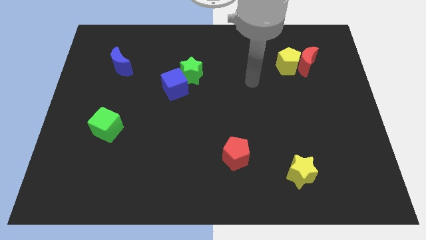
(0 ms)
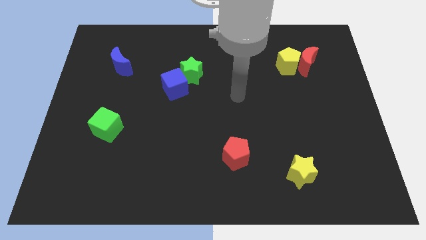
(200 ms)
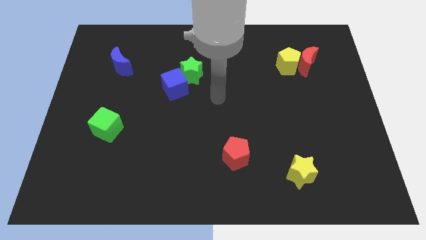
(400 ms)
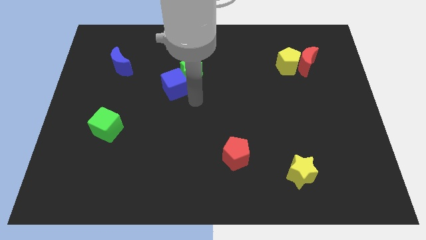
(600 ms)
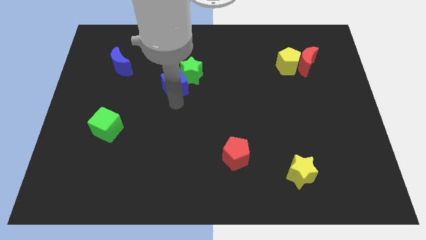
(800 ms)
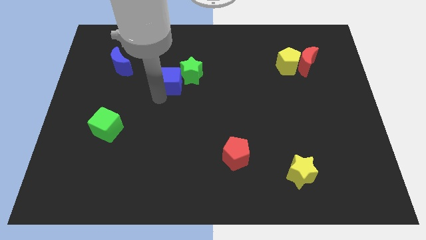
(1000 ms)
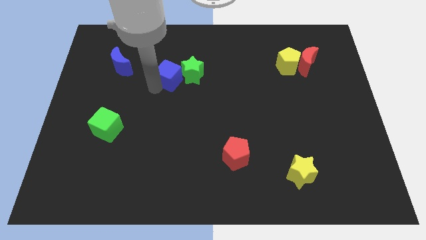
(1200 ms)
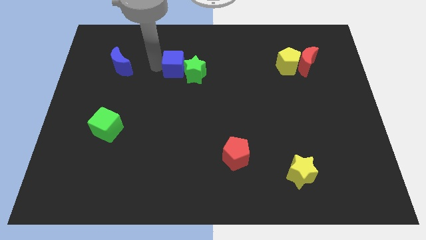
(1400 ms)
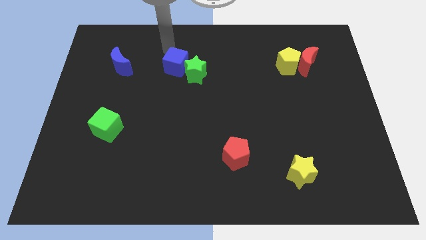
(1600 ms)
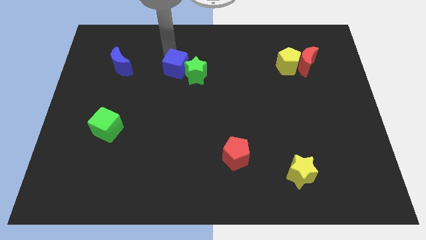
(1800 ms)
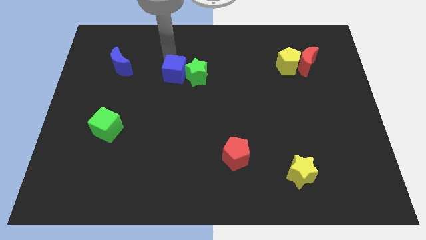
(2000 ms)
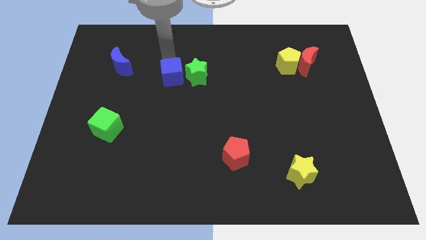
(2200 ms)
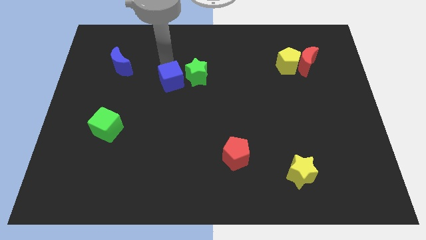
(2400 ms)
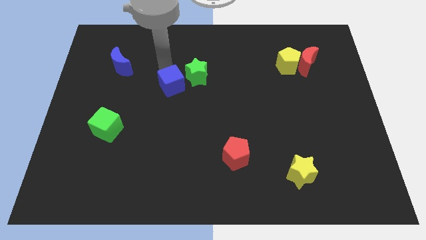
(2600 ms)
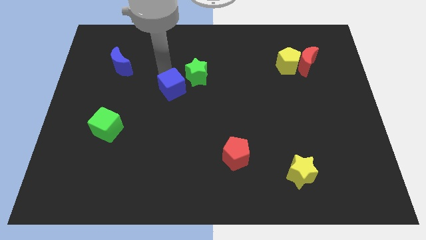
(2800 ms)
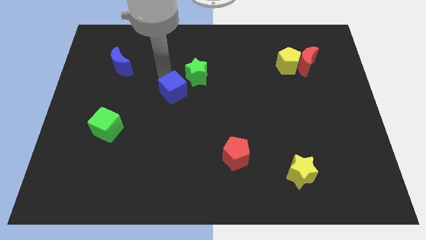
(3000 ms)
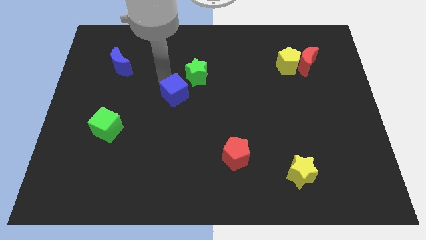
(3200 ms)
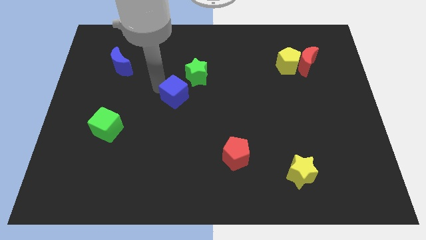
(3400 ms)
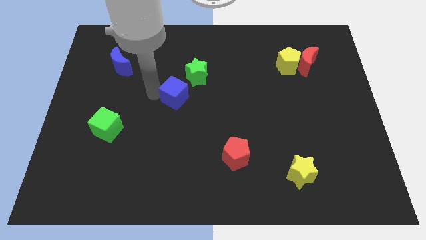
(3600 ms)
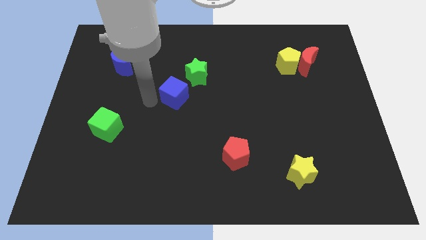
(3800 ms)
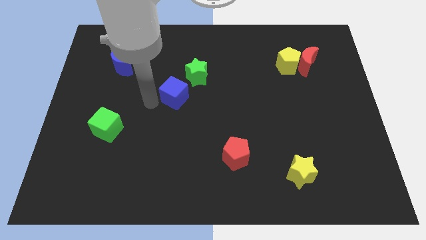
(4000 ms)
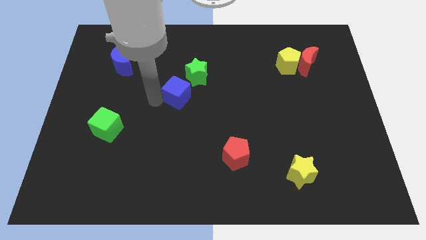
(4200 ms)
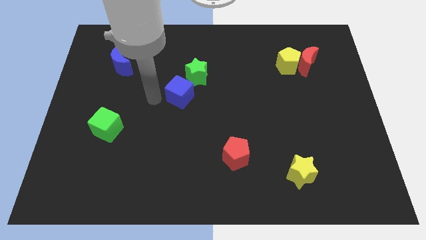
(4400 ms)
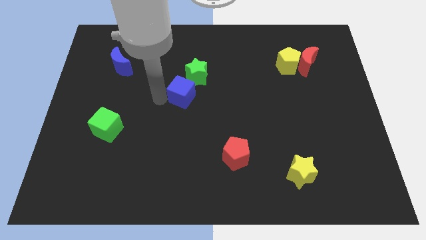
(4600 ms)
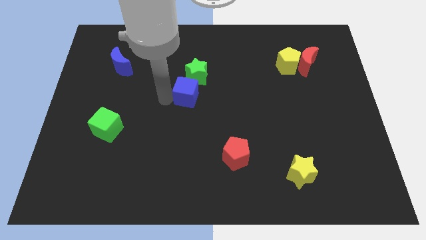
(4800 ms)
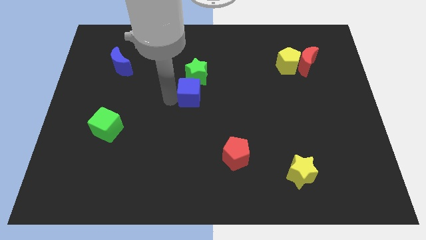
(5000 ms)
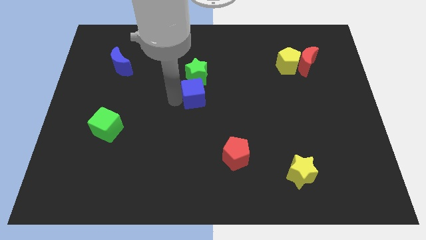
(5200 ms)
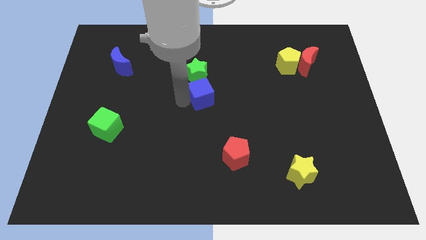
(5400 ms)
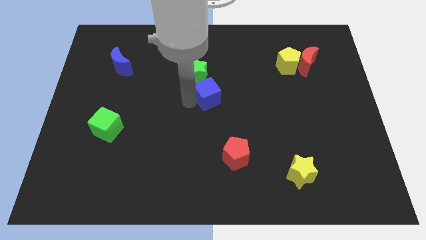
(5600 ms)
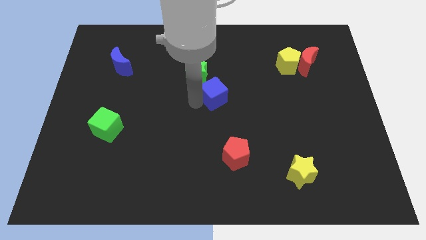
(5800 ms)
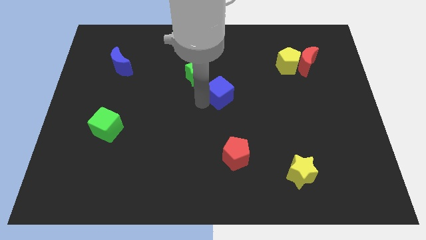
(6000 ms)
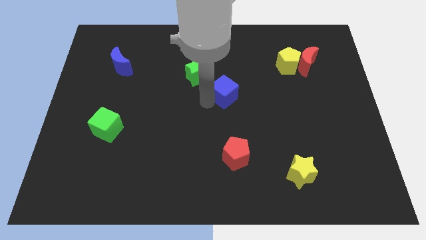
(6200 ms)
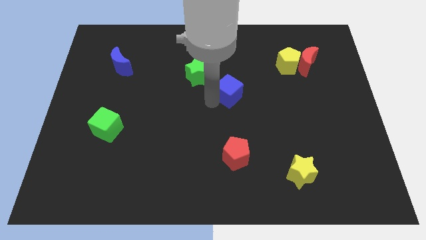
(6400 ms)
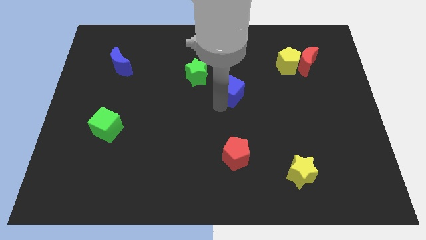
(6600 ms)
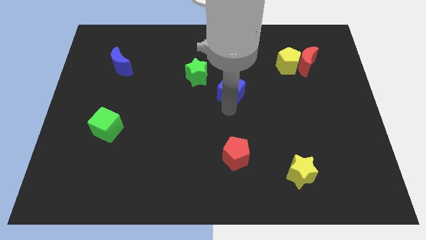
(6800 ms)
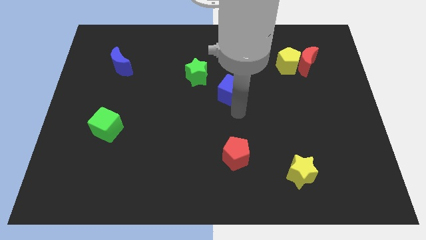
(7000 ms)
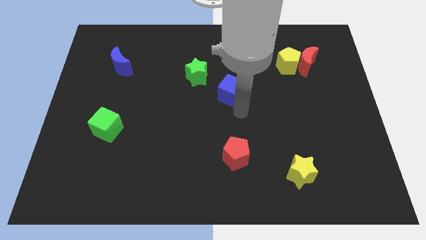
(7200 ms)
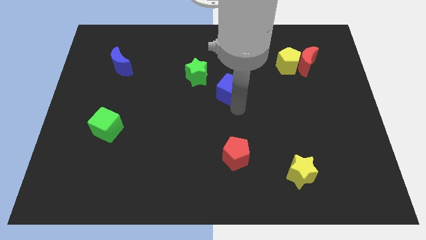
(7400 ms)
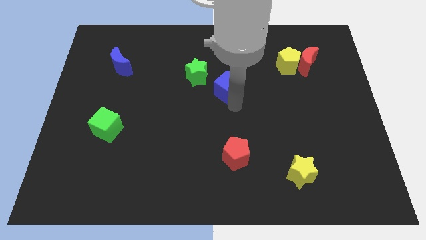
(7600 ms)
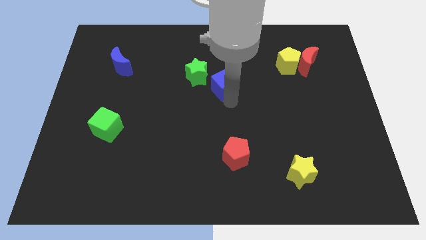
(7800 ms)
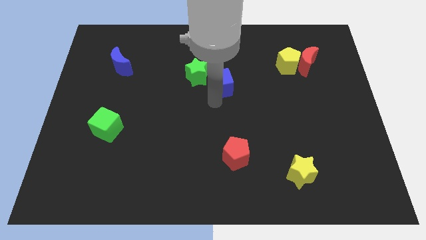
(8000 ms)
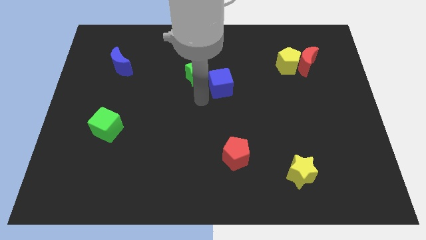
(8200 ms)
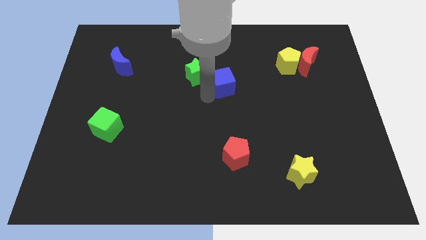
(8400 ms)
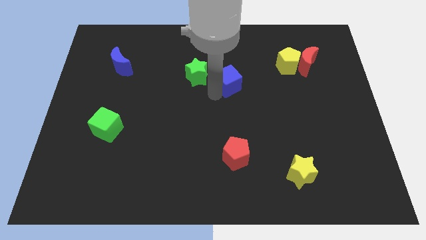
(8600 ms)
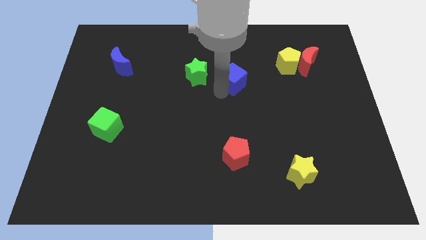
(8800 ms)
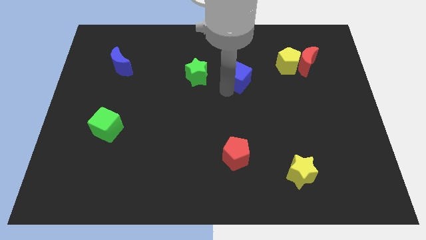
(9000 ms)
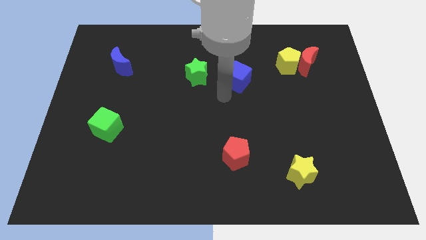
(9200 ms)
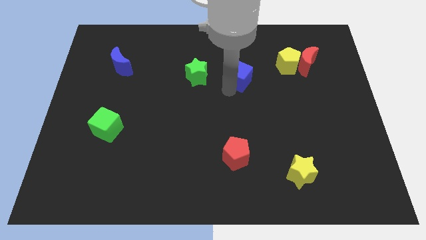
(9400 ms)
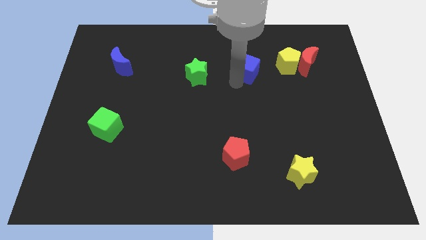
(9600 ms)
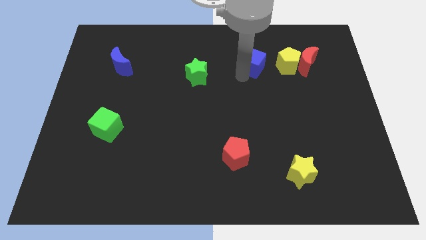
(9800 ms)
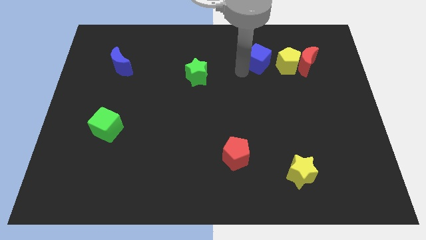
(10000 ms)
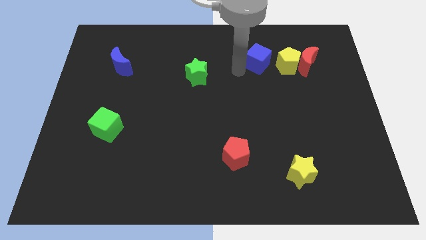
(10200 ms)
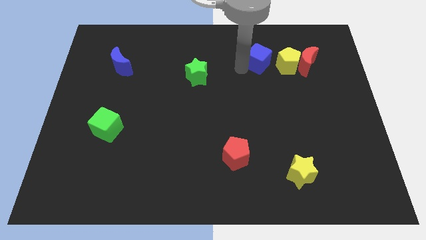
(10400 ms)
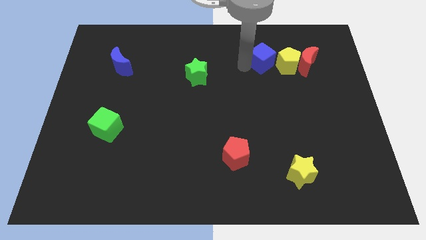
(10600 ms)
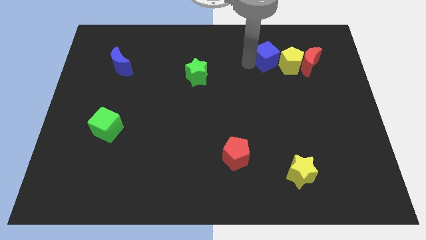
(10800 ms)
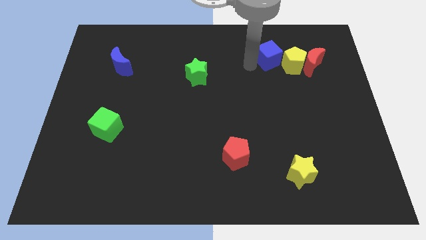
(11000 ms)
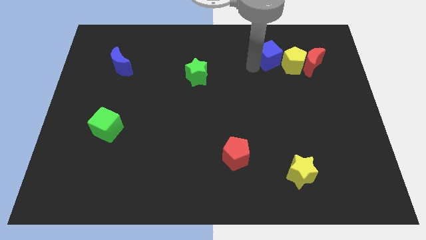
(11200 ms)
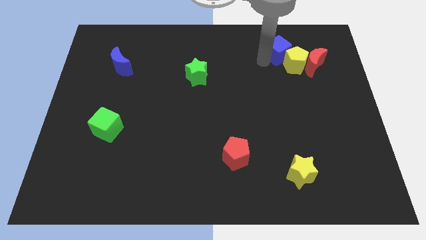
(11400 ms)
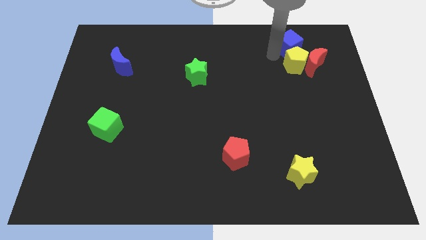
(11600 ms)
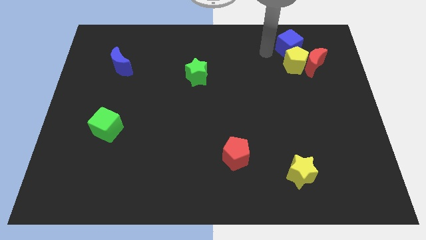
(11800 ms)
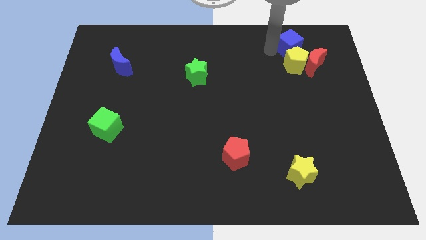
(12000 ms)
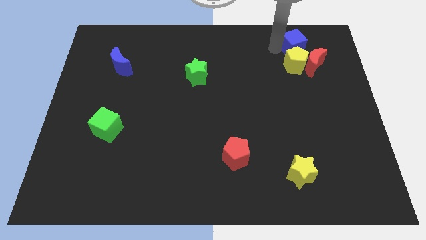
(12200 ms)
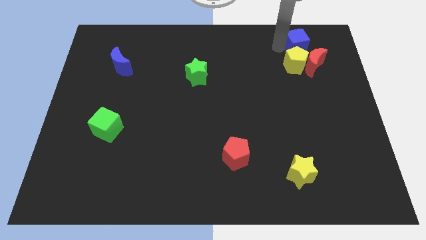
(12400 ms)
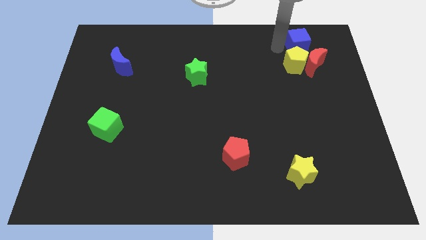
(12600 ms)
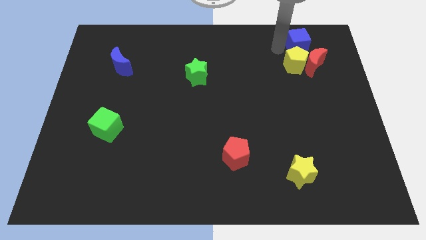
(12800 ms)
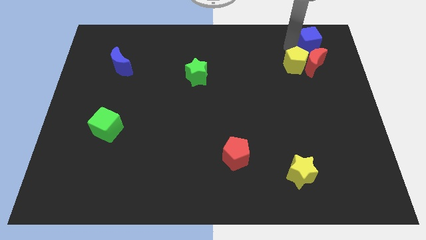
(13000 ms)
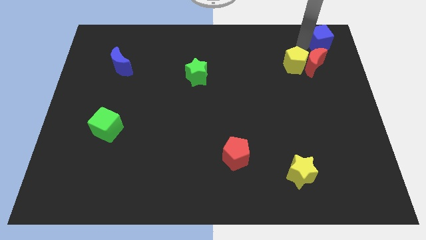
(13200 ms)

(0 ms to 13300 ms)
move the blue cube to the top right of the board
